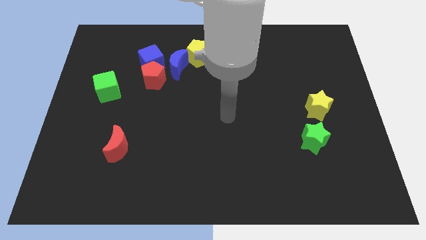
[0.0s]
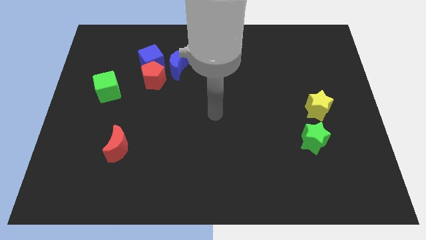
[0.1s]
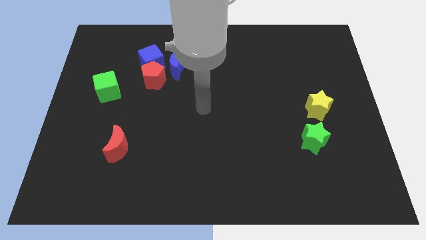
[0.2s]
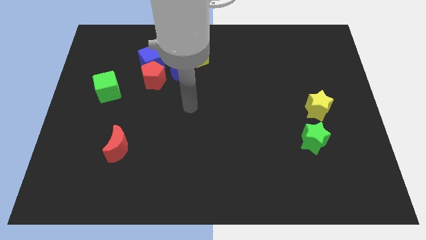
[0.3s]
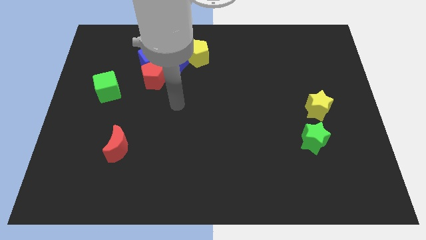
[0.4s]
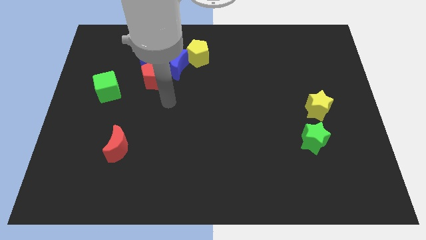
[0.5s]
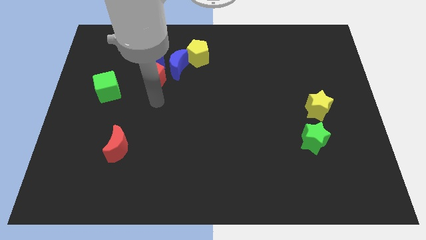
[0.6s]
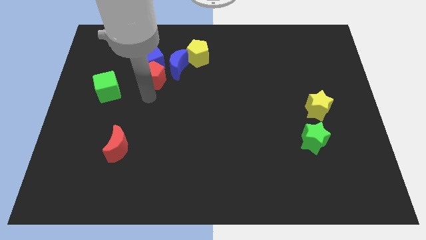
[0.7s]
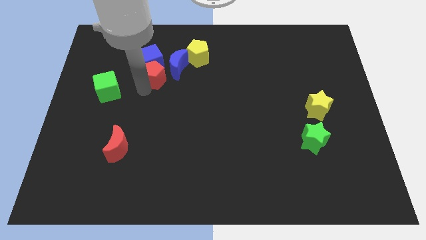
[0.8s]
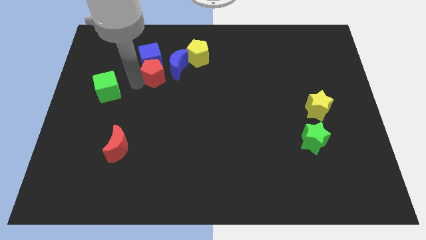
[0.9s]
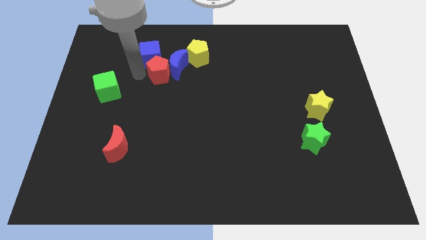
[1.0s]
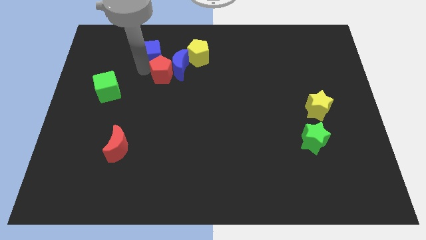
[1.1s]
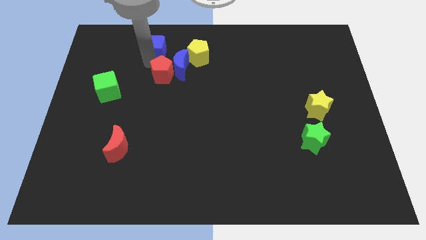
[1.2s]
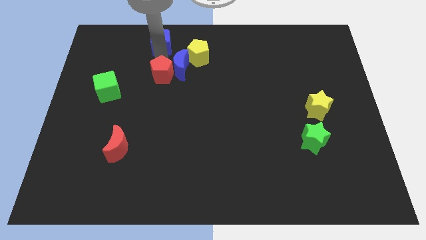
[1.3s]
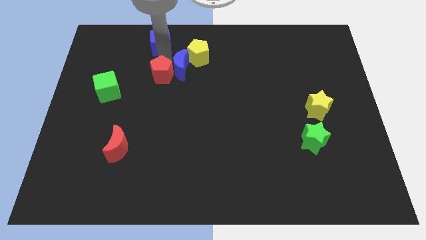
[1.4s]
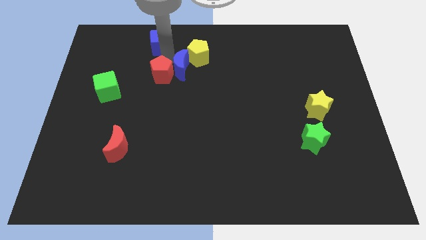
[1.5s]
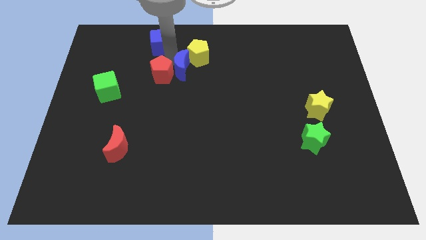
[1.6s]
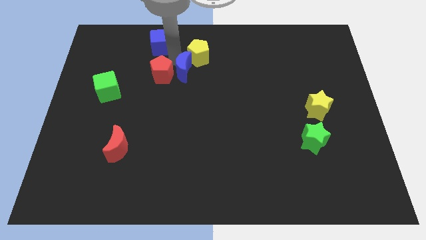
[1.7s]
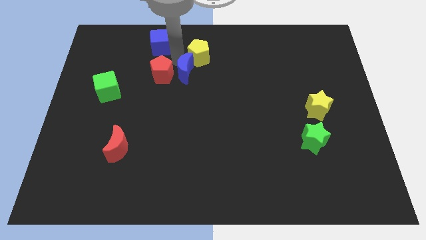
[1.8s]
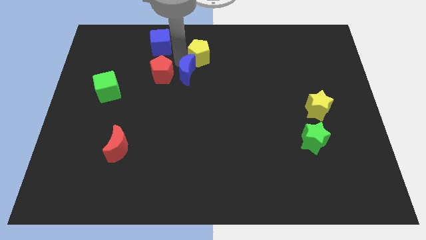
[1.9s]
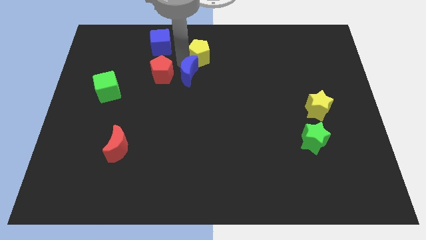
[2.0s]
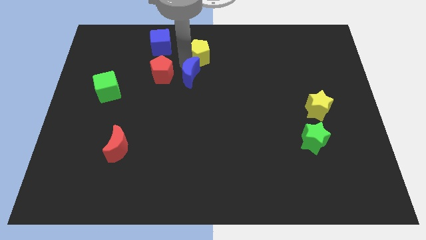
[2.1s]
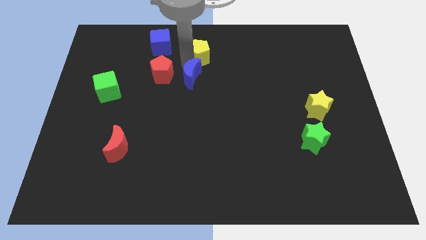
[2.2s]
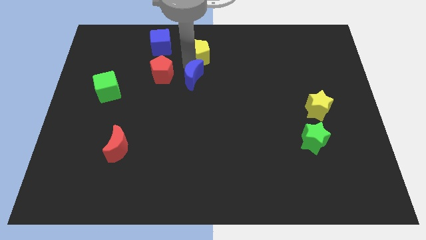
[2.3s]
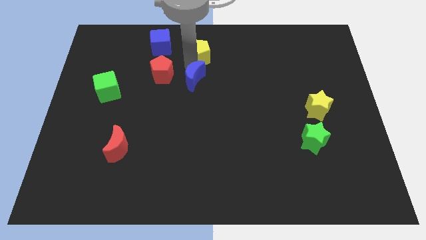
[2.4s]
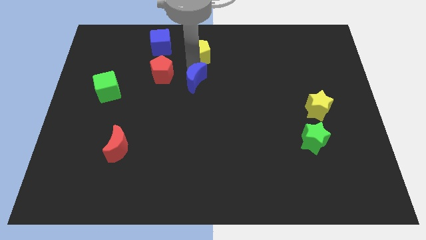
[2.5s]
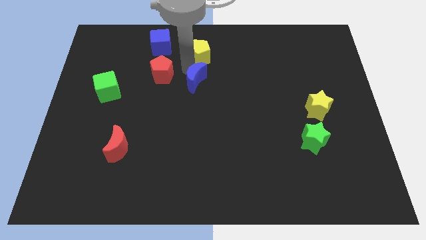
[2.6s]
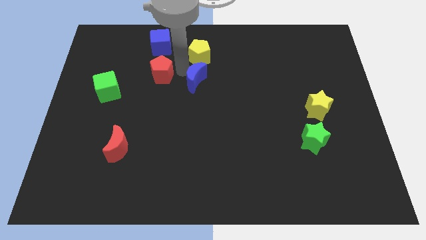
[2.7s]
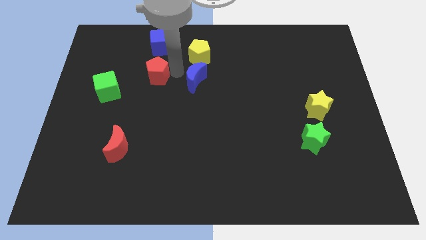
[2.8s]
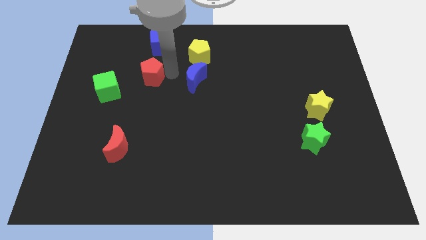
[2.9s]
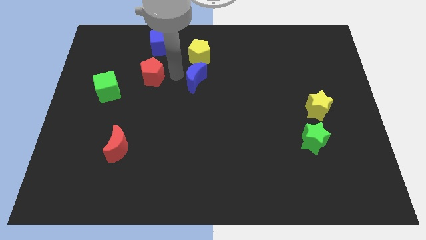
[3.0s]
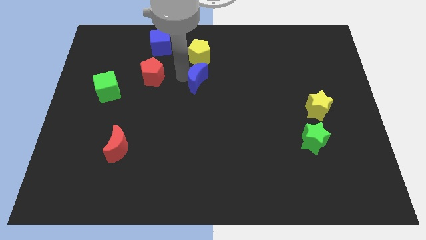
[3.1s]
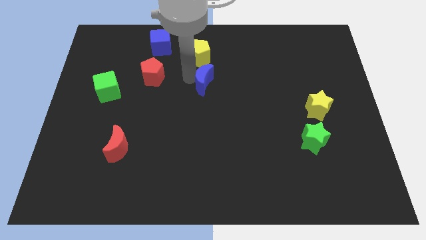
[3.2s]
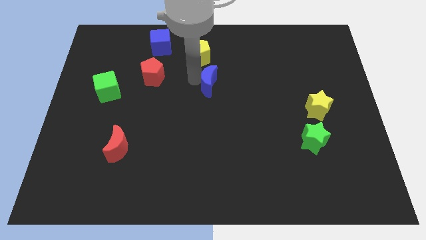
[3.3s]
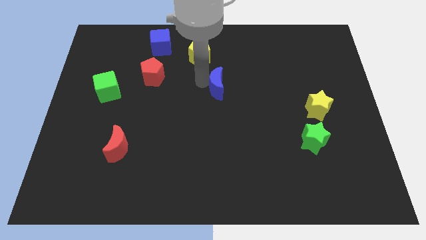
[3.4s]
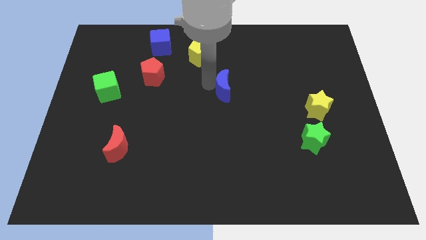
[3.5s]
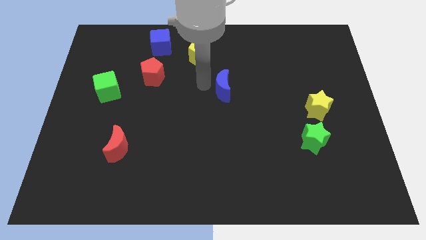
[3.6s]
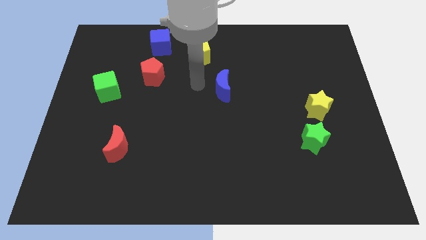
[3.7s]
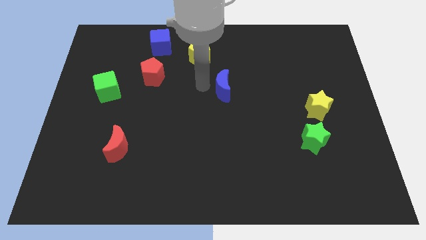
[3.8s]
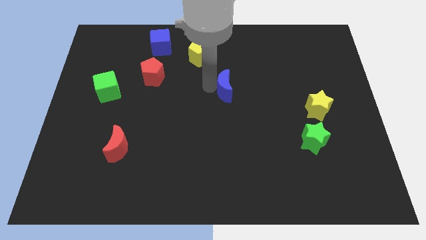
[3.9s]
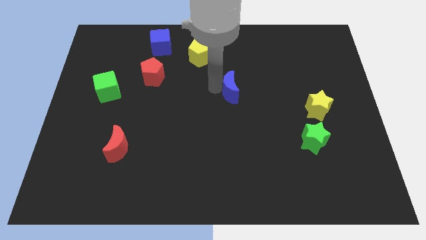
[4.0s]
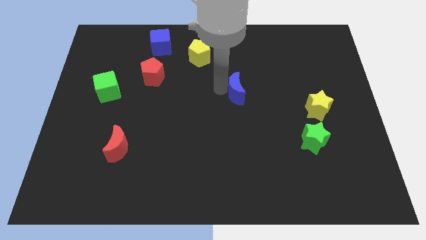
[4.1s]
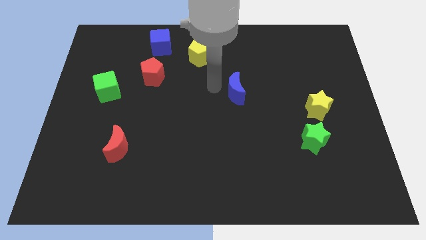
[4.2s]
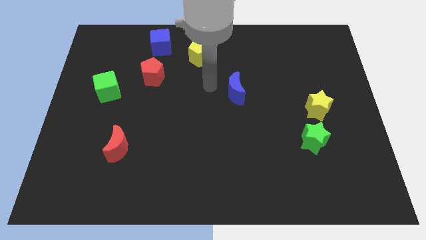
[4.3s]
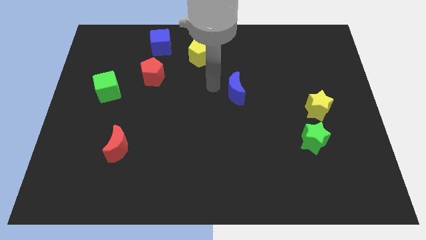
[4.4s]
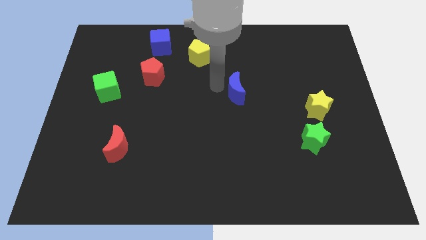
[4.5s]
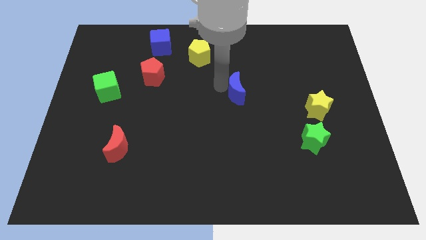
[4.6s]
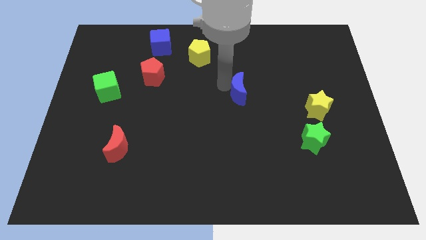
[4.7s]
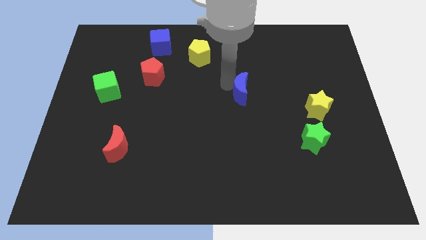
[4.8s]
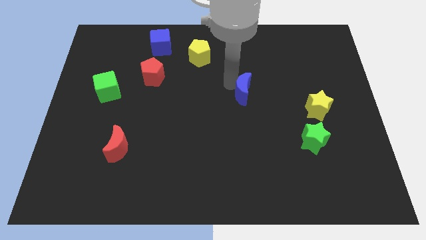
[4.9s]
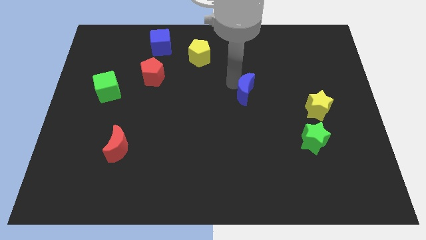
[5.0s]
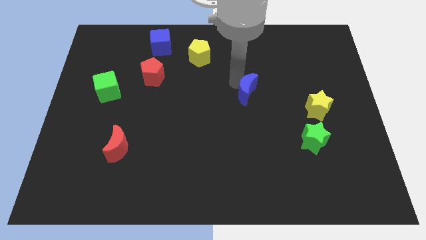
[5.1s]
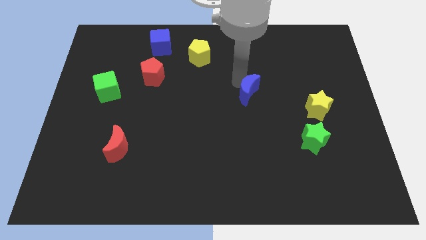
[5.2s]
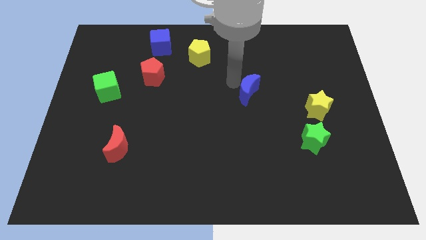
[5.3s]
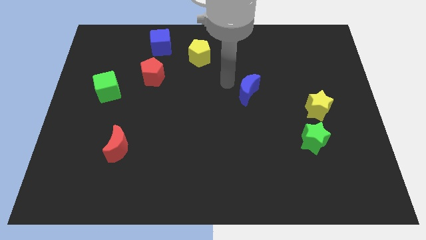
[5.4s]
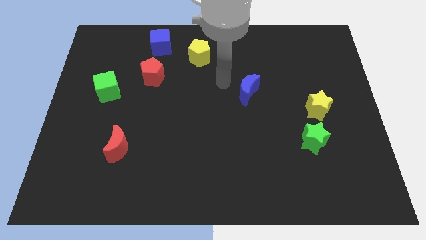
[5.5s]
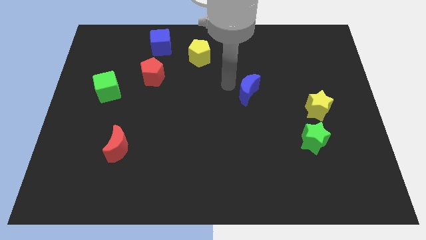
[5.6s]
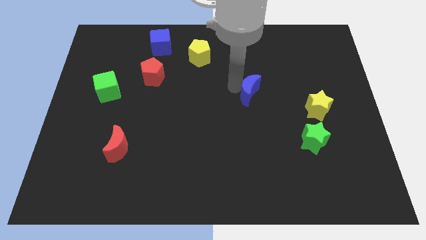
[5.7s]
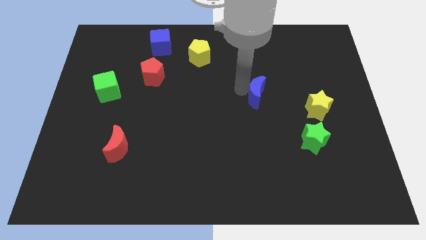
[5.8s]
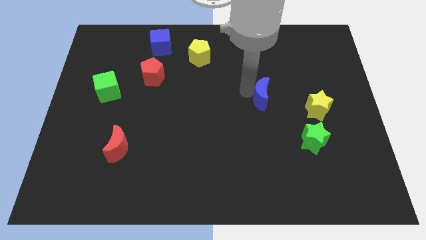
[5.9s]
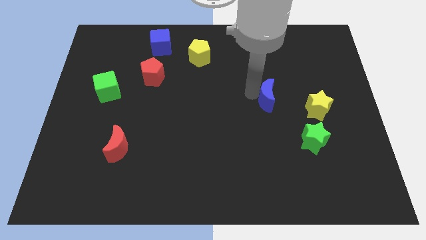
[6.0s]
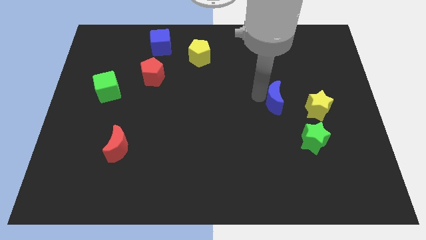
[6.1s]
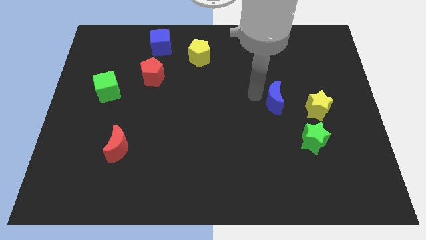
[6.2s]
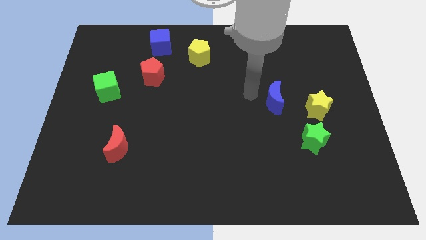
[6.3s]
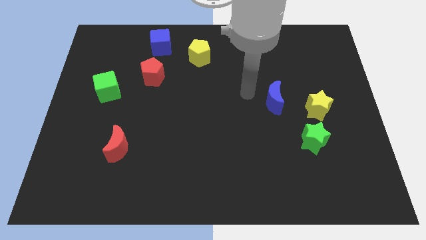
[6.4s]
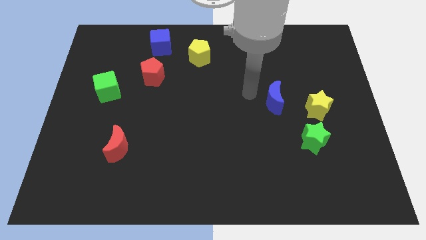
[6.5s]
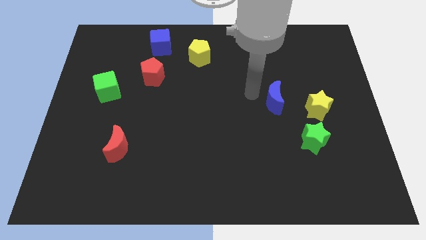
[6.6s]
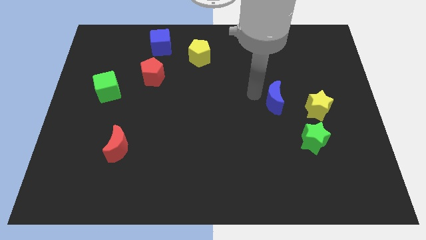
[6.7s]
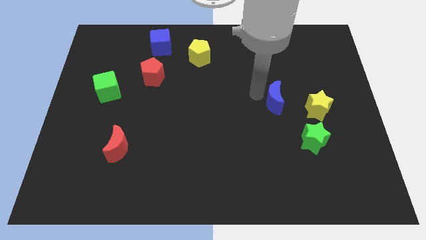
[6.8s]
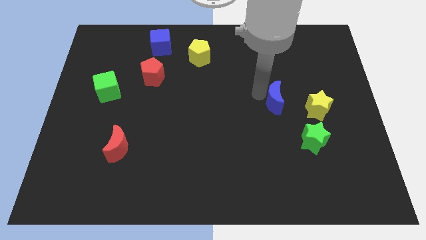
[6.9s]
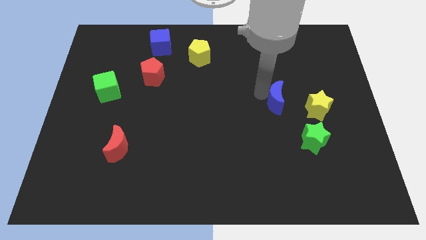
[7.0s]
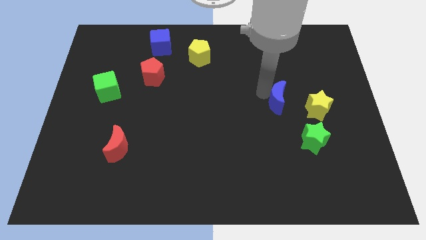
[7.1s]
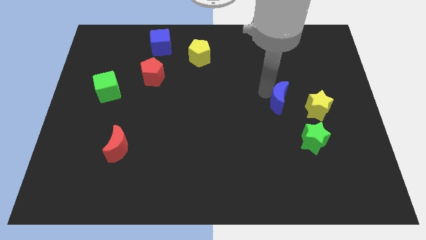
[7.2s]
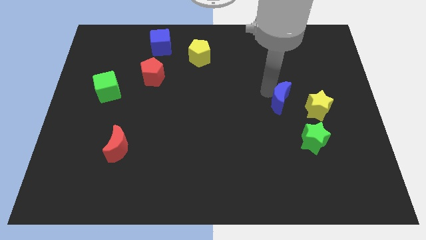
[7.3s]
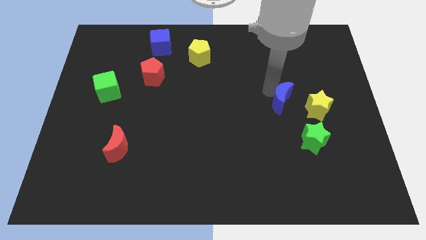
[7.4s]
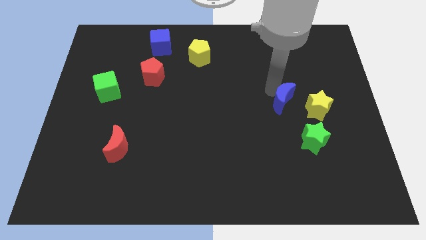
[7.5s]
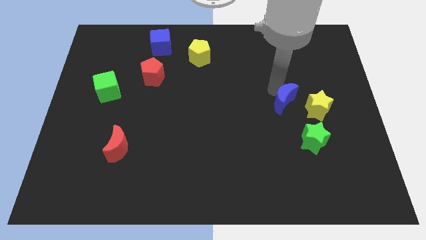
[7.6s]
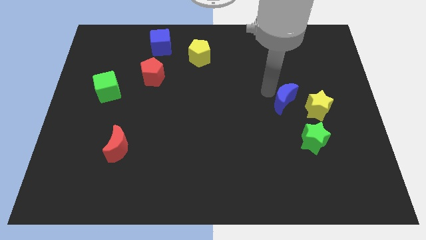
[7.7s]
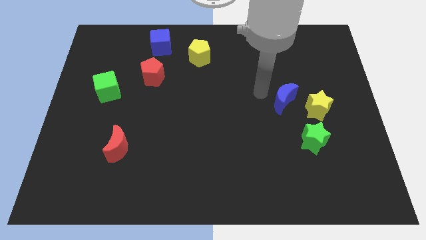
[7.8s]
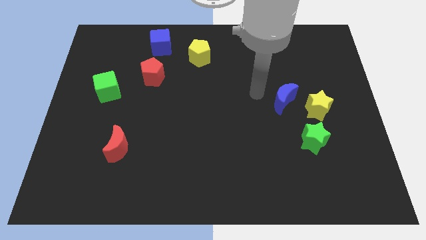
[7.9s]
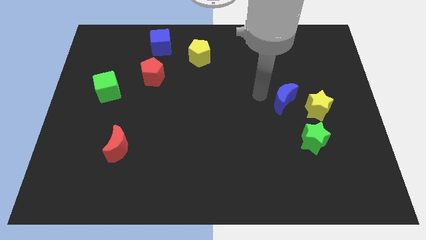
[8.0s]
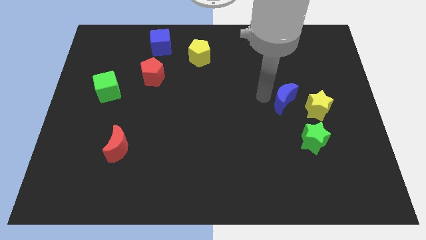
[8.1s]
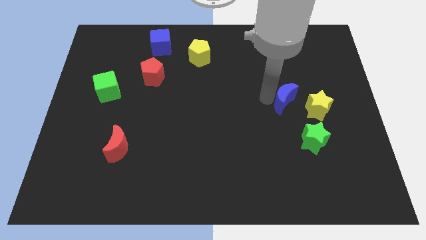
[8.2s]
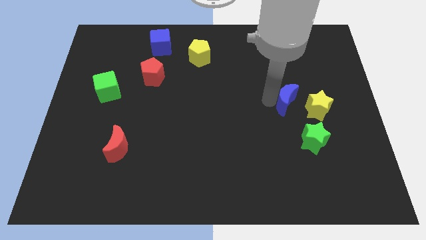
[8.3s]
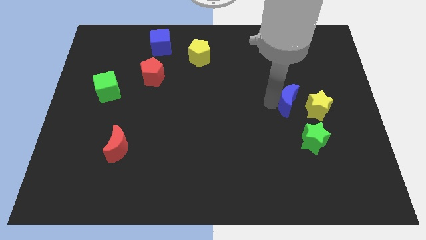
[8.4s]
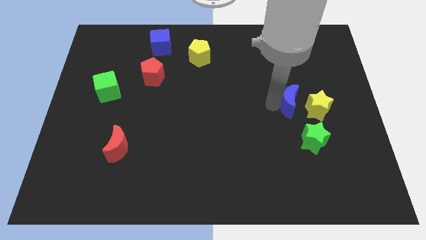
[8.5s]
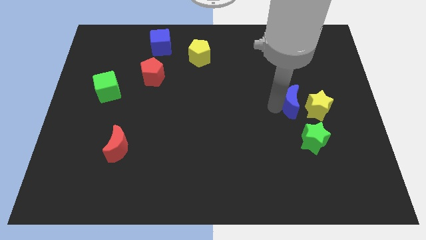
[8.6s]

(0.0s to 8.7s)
move the blue moon next to the yellow star
